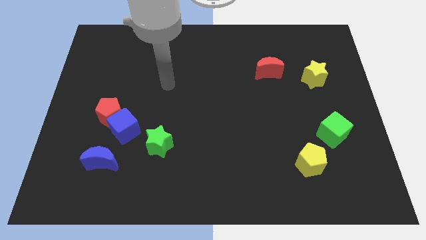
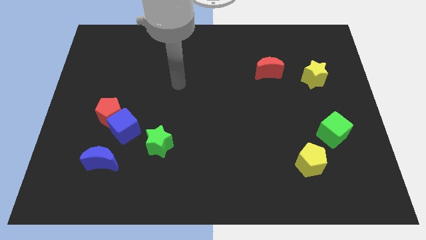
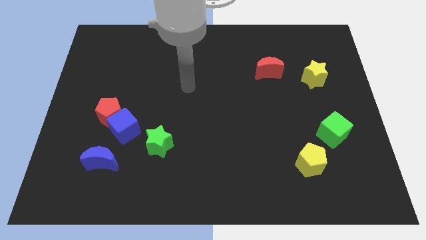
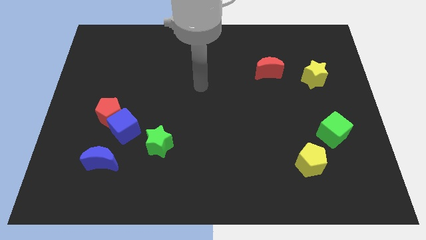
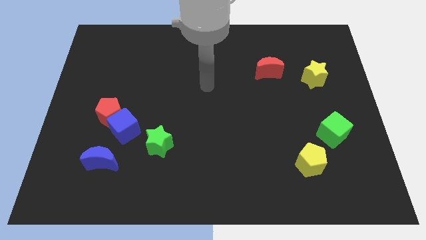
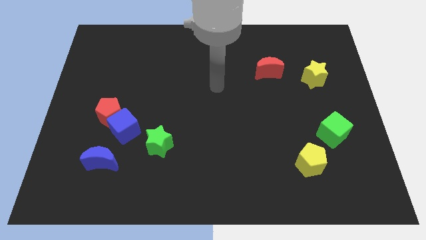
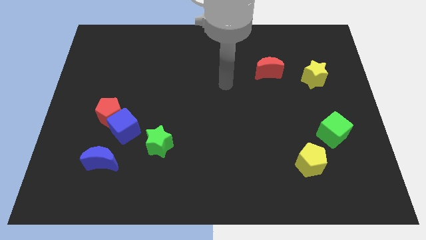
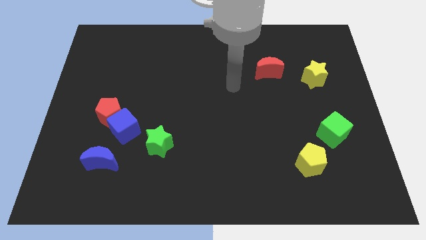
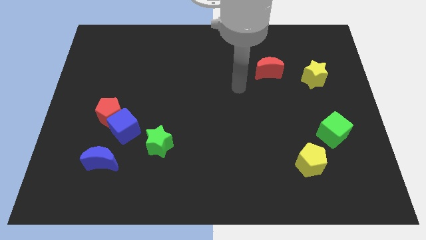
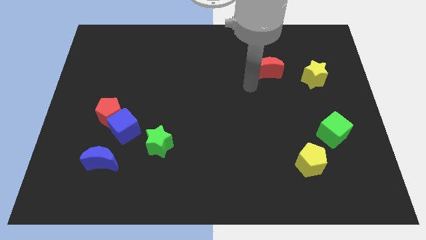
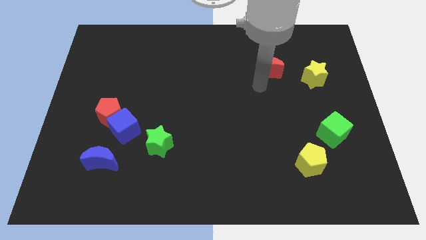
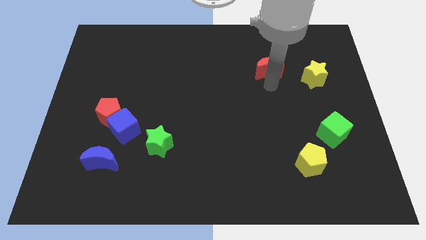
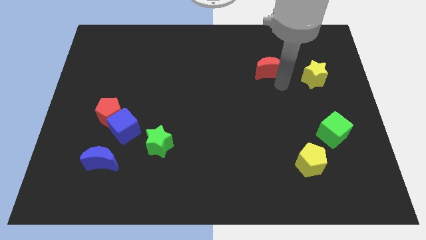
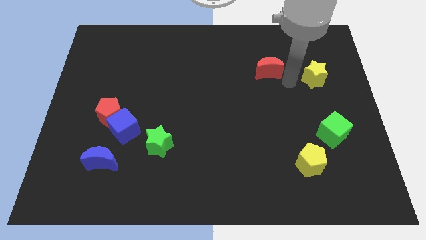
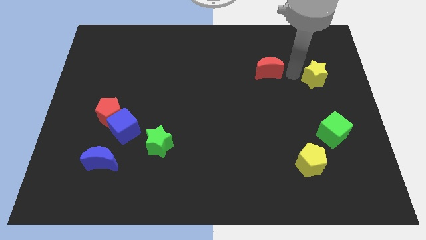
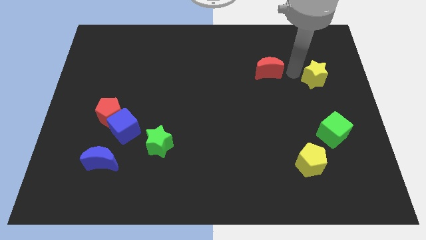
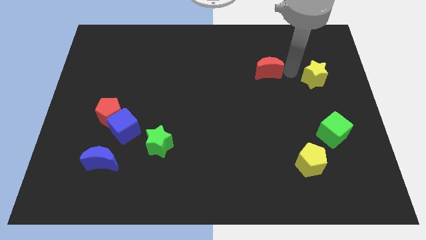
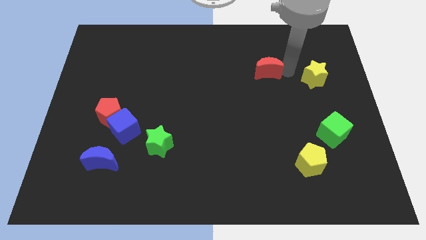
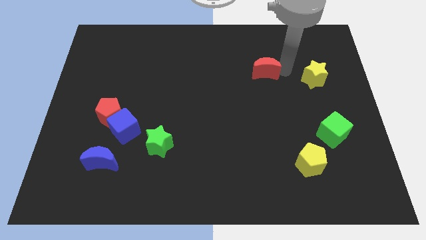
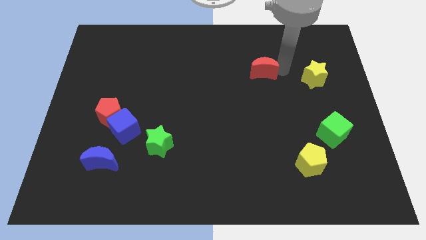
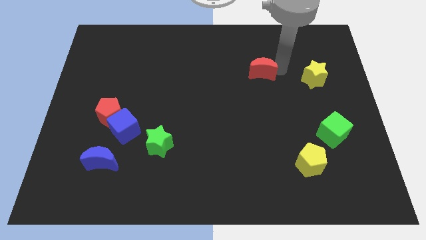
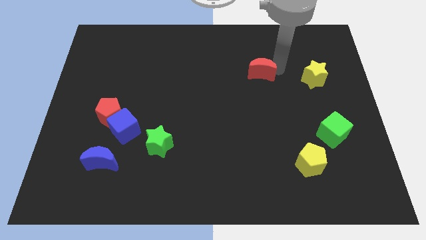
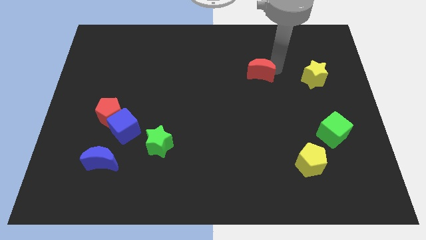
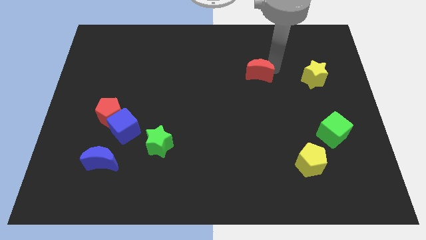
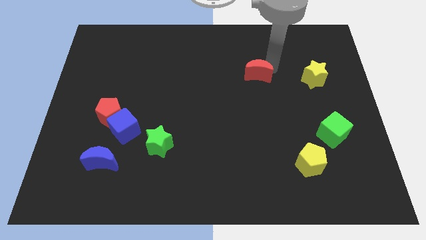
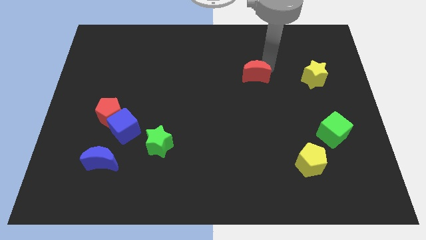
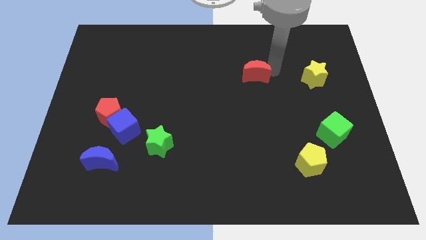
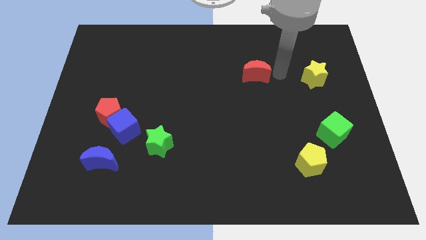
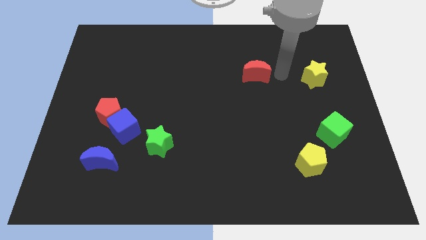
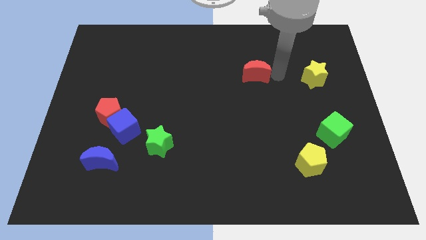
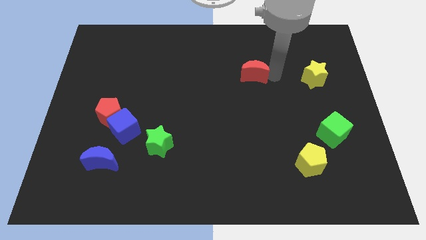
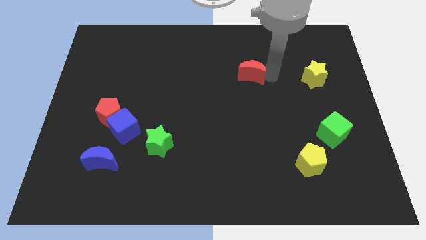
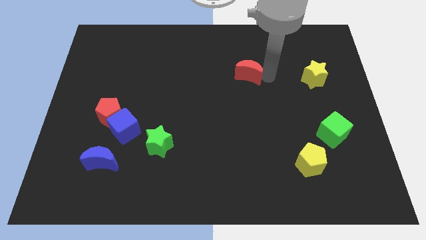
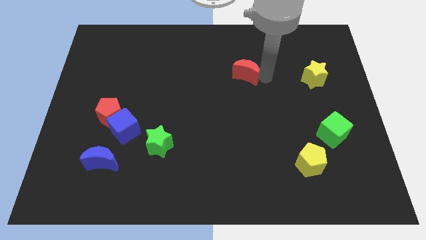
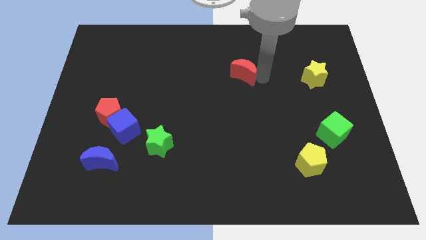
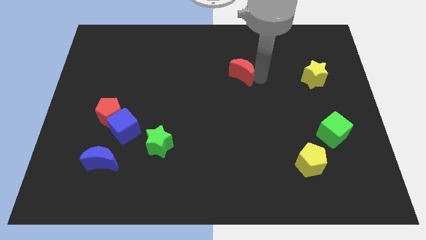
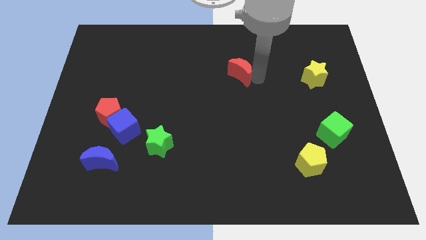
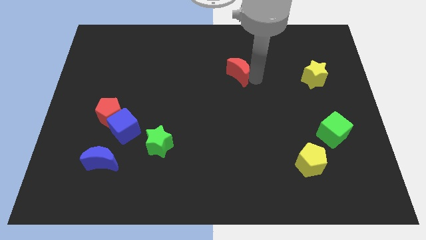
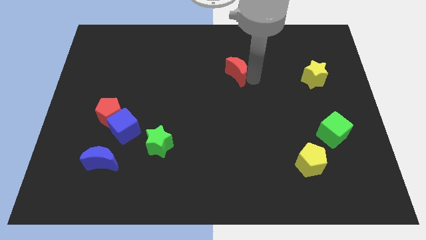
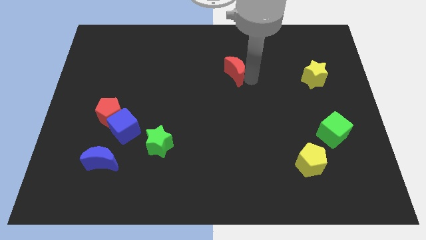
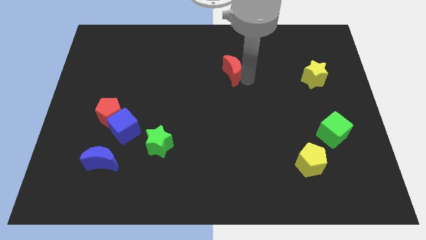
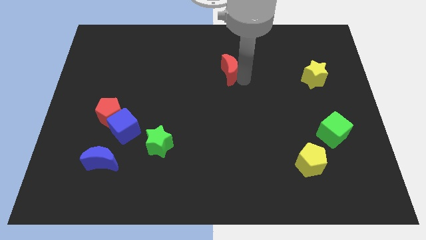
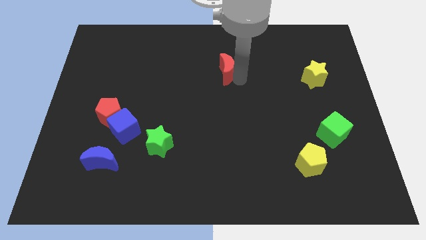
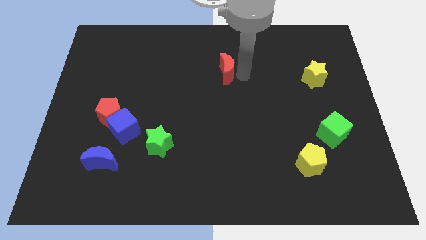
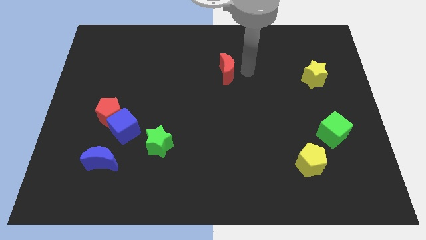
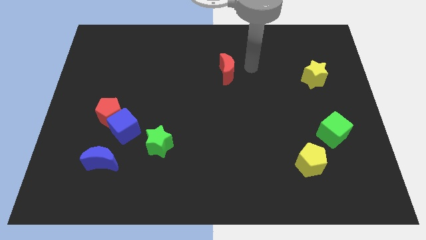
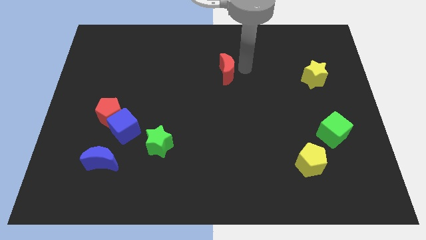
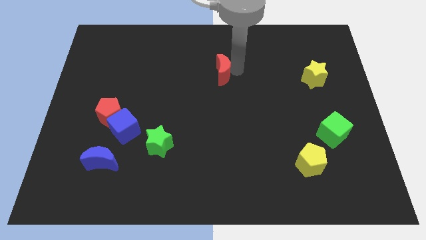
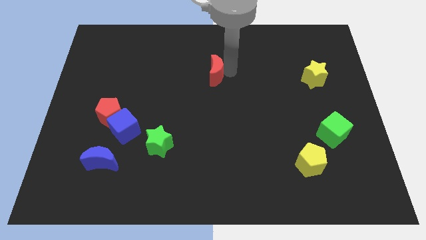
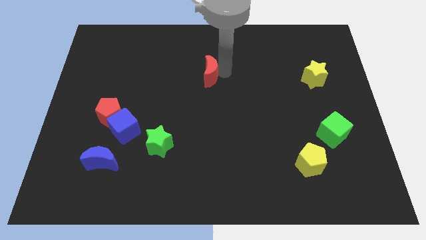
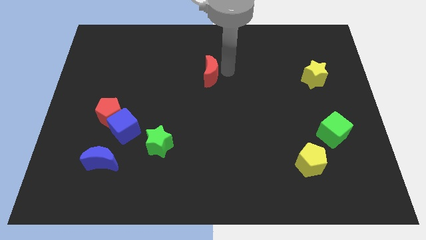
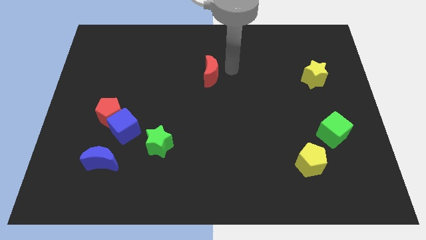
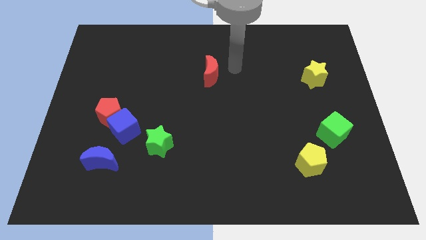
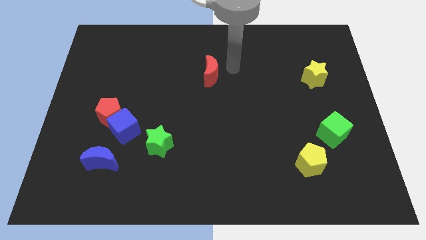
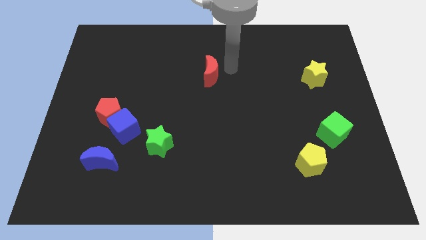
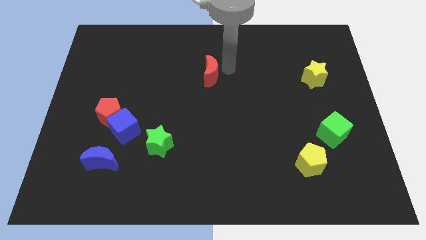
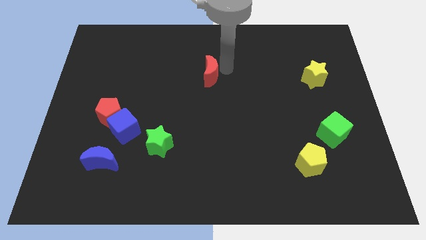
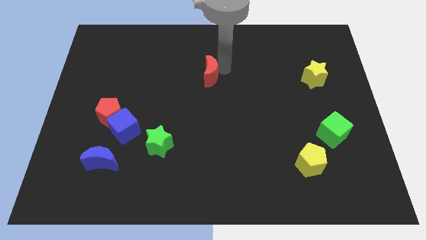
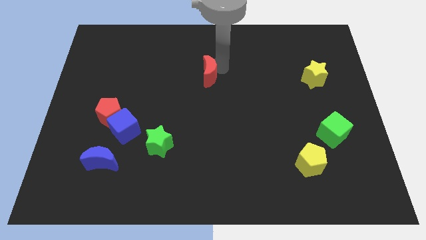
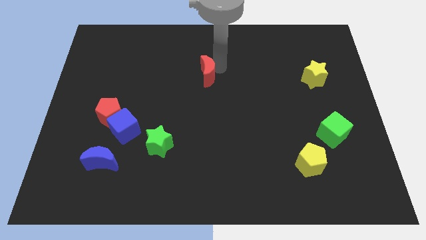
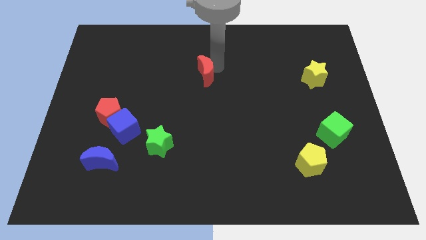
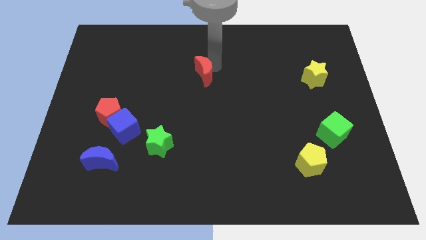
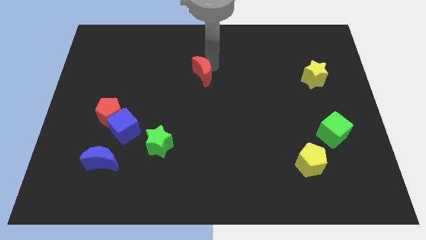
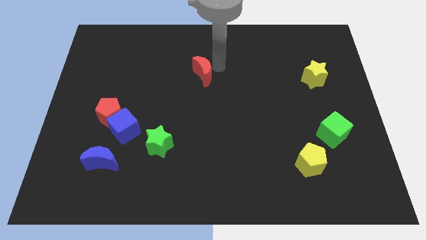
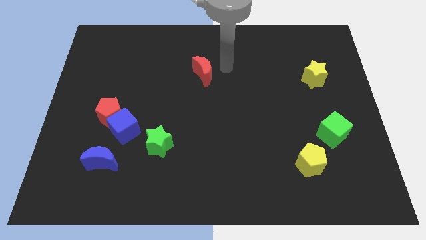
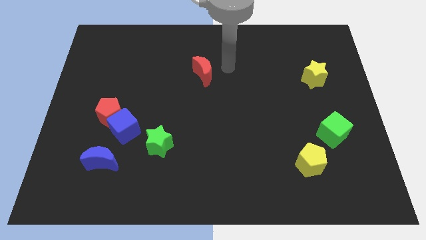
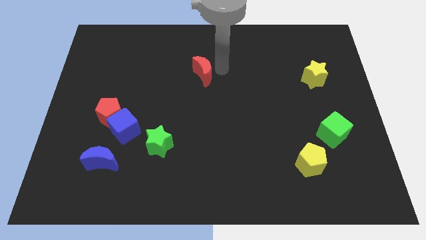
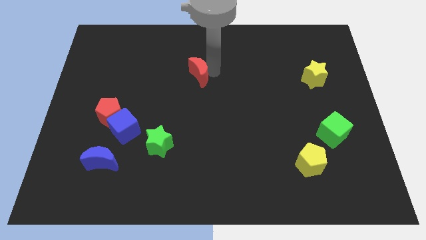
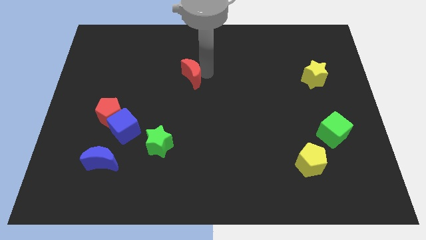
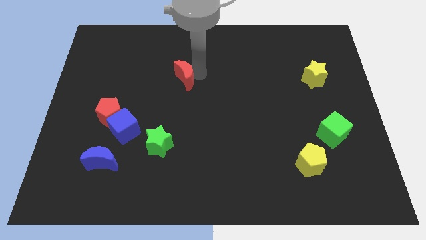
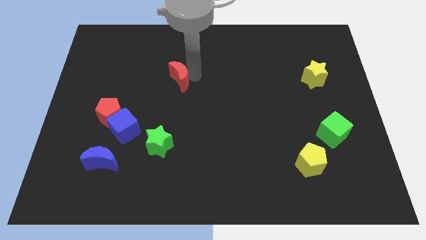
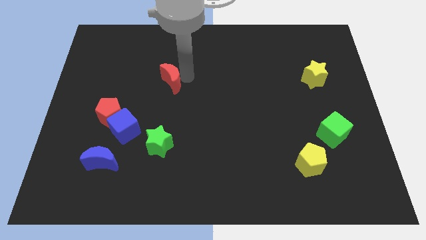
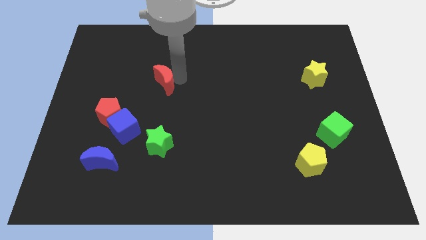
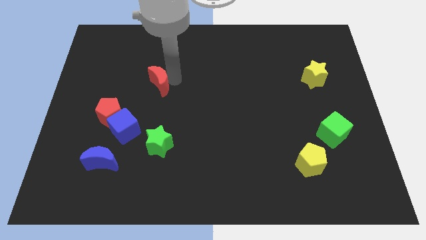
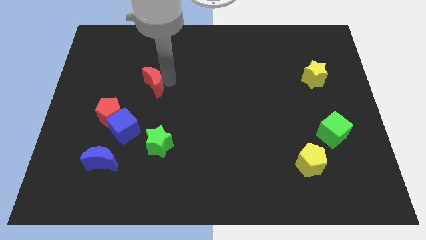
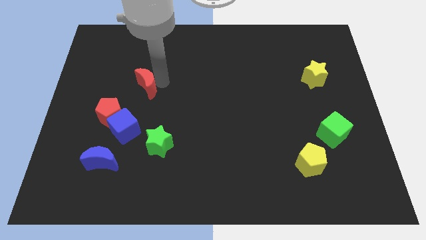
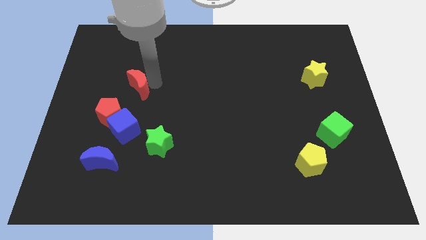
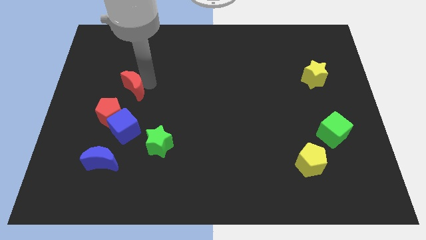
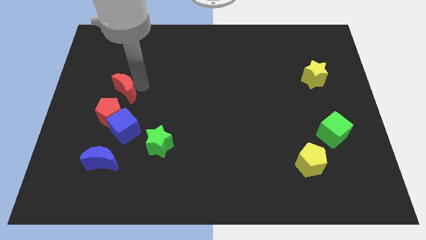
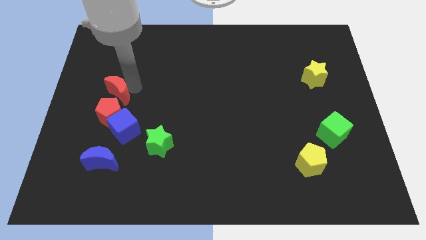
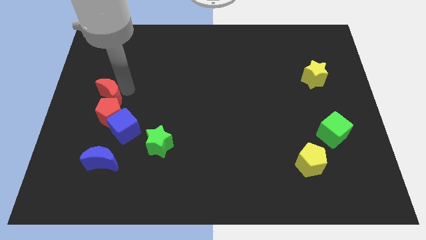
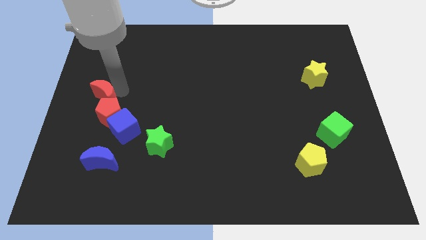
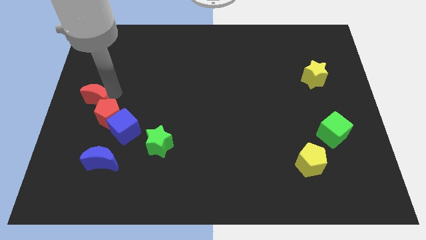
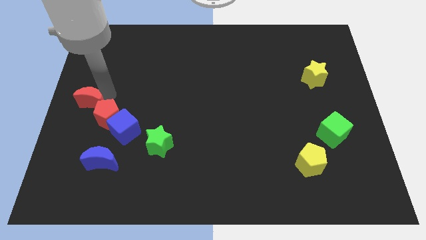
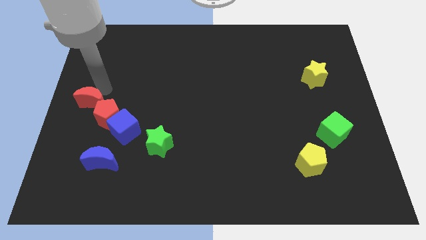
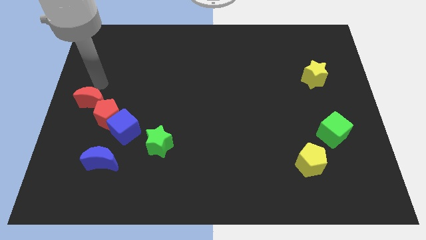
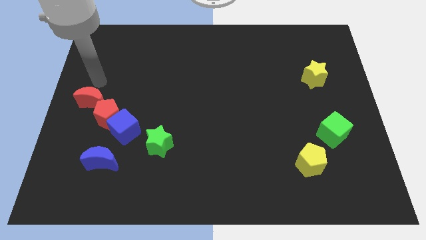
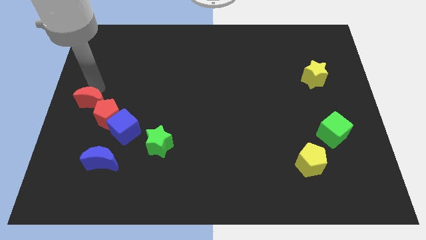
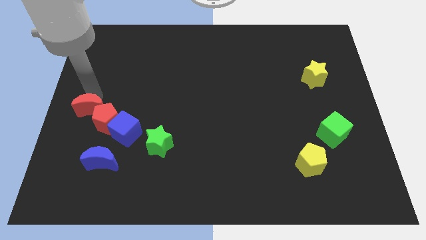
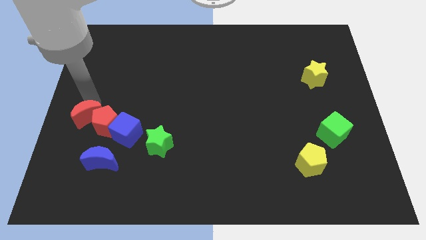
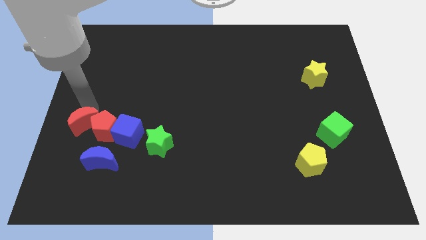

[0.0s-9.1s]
push the red moon diagonally up and to the left of the blue moon
